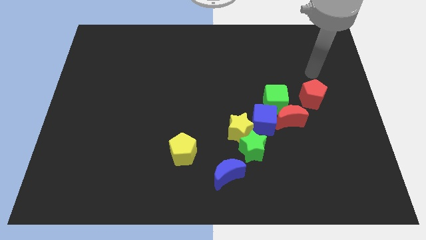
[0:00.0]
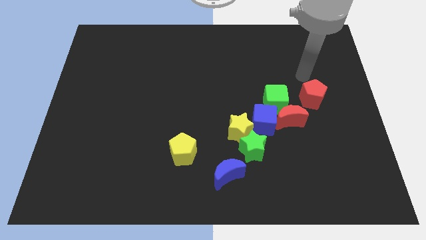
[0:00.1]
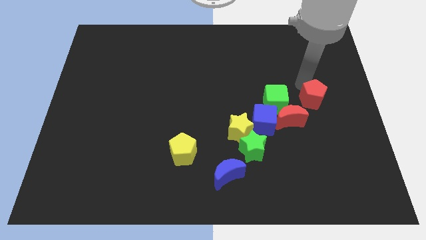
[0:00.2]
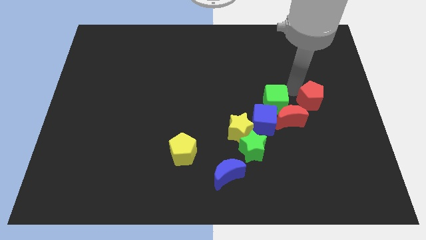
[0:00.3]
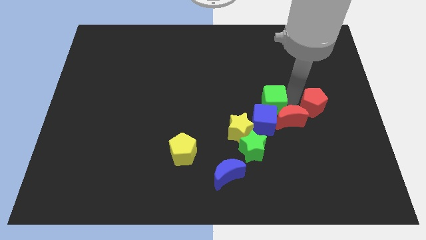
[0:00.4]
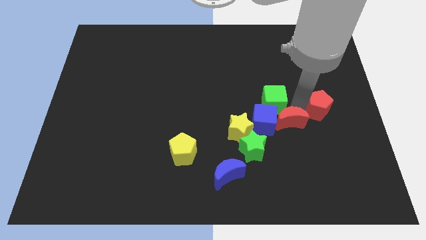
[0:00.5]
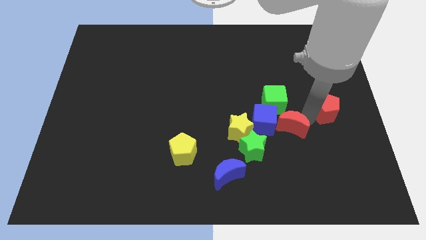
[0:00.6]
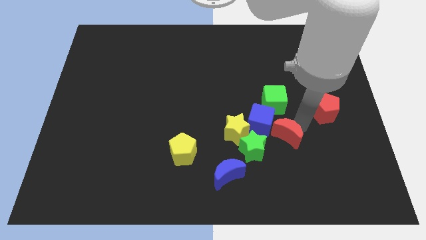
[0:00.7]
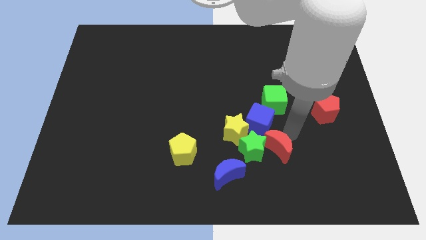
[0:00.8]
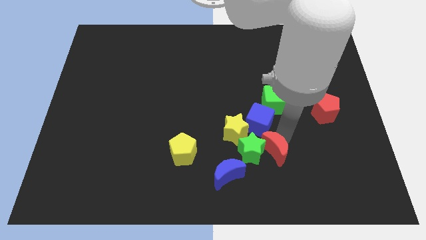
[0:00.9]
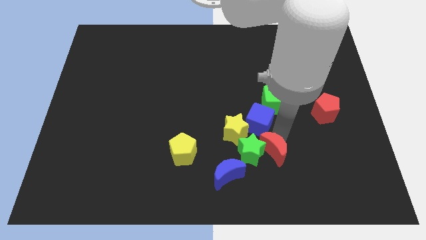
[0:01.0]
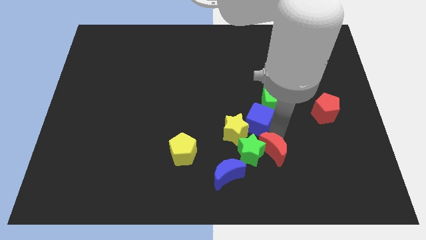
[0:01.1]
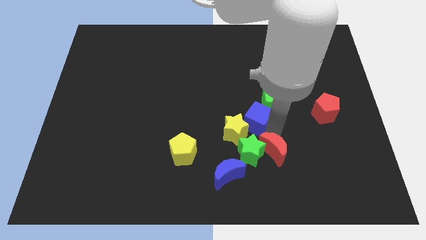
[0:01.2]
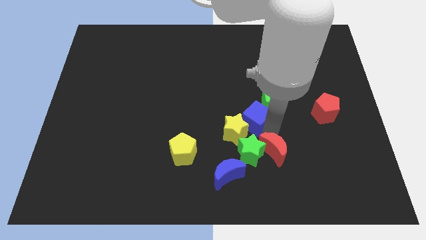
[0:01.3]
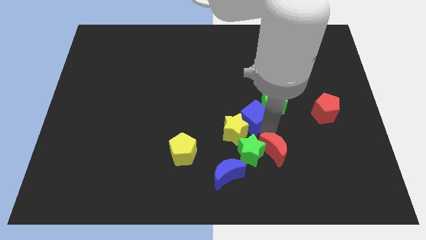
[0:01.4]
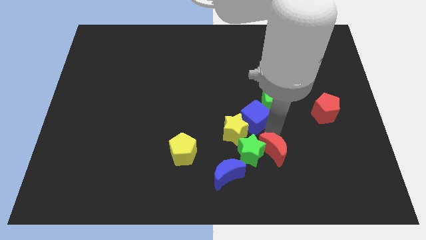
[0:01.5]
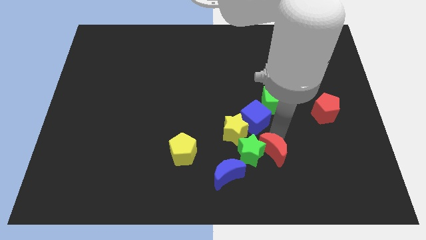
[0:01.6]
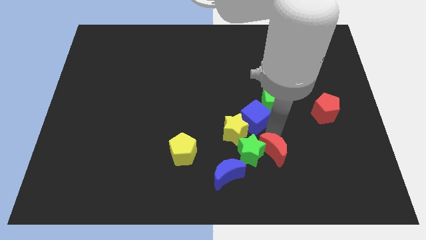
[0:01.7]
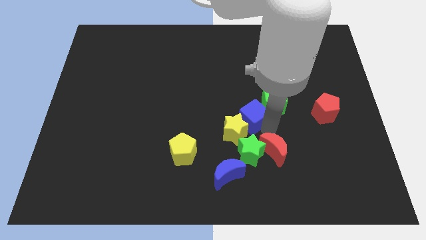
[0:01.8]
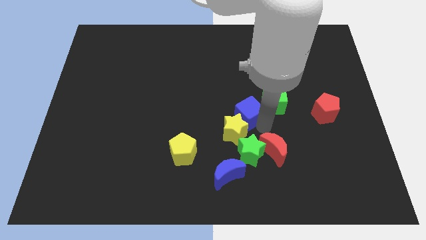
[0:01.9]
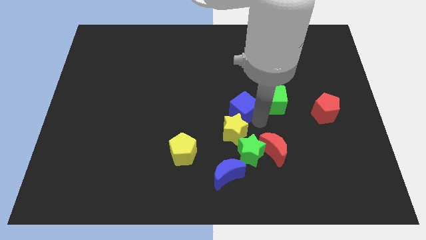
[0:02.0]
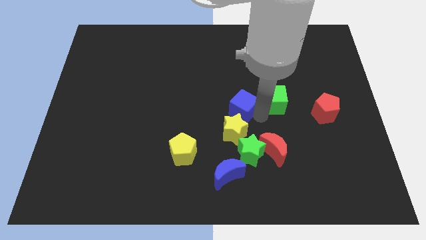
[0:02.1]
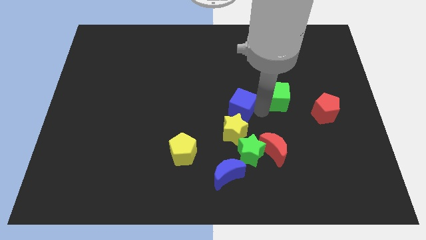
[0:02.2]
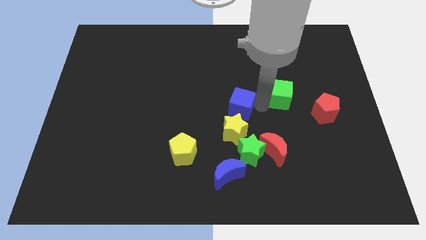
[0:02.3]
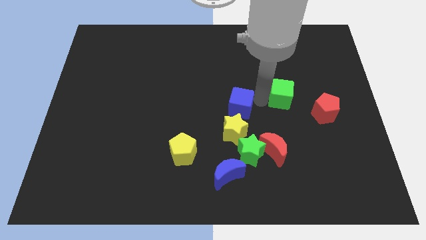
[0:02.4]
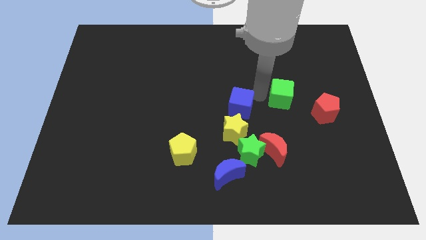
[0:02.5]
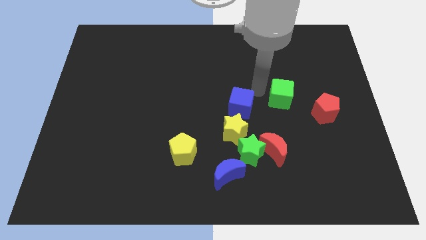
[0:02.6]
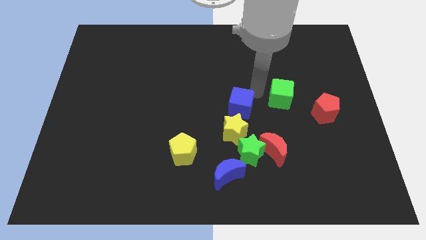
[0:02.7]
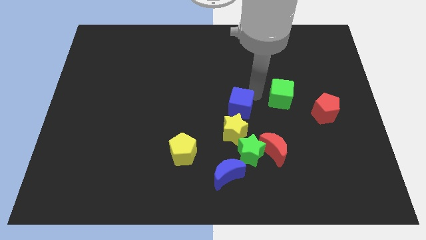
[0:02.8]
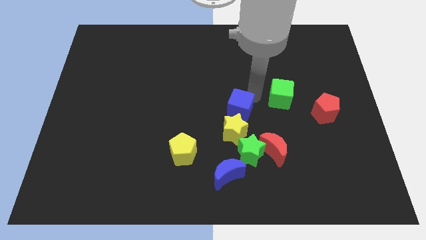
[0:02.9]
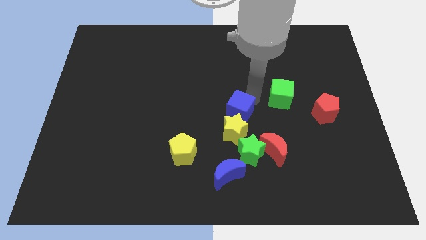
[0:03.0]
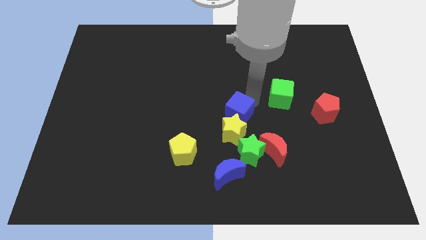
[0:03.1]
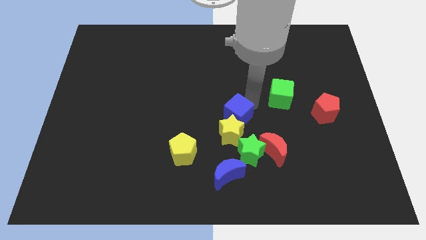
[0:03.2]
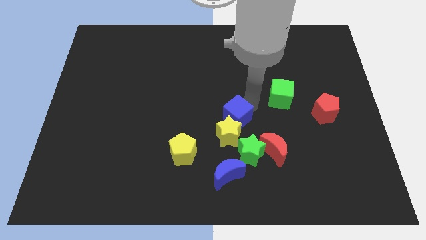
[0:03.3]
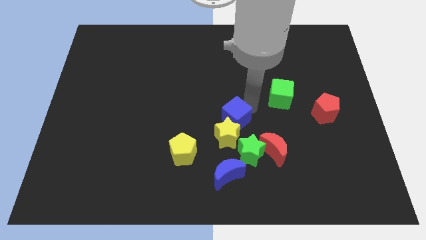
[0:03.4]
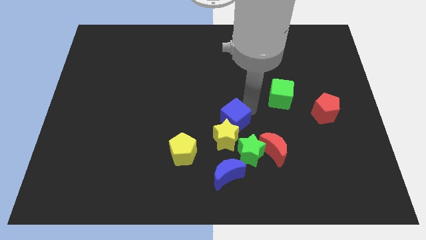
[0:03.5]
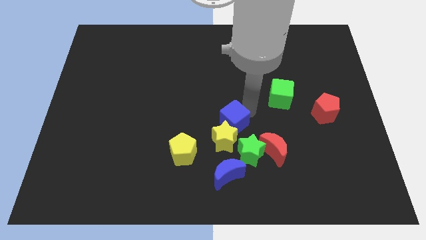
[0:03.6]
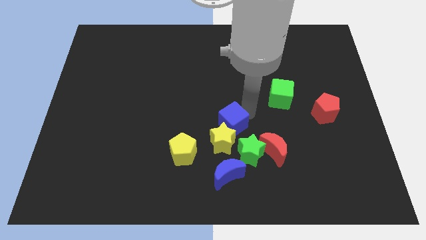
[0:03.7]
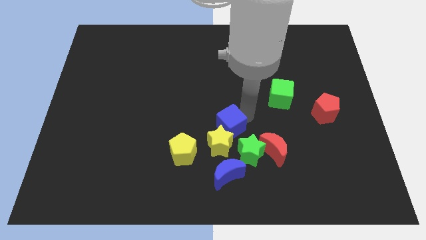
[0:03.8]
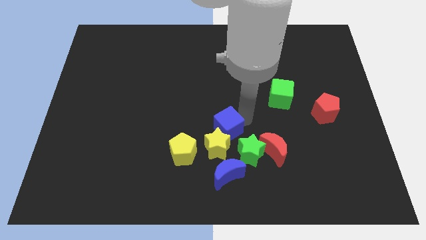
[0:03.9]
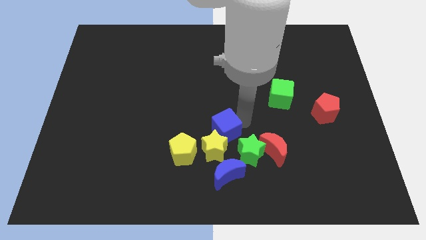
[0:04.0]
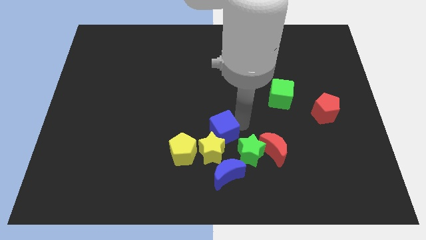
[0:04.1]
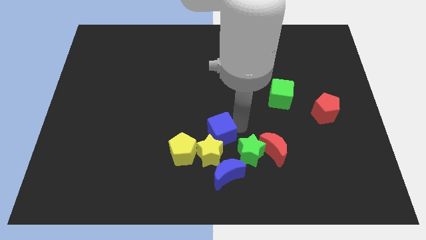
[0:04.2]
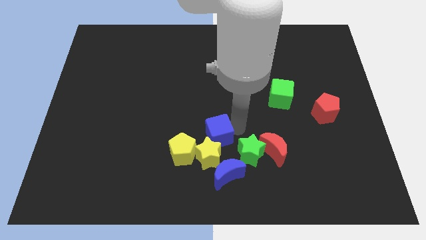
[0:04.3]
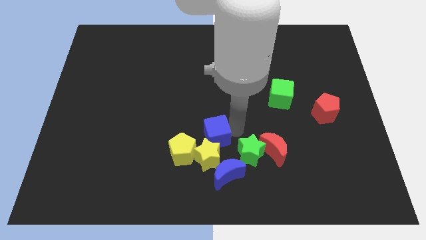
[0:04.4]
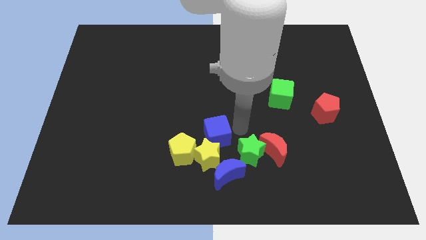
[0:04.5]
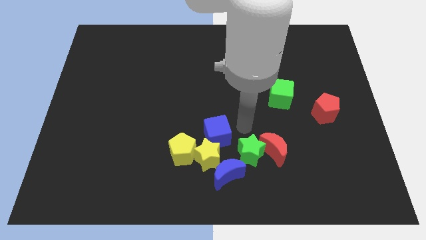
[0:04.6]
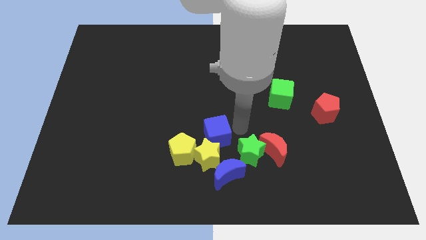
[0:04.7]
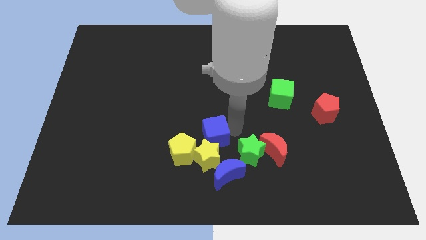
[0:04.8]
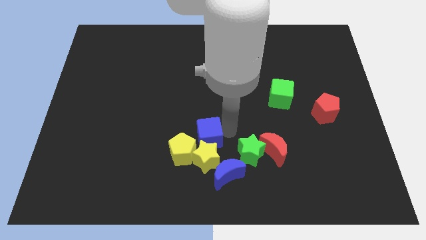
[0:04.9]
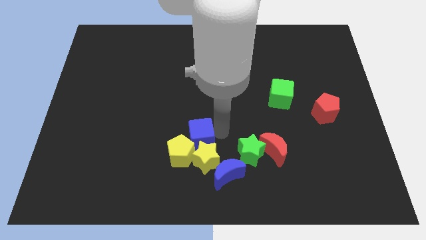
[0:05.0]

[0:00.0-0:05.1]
move the blue cube close to the yellow pentagon

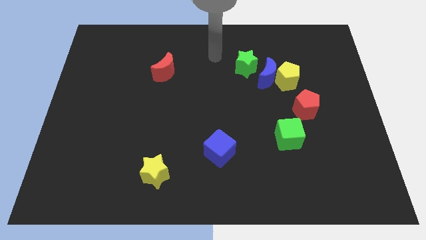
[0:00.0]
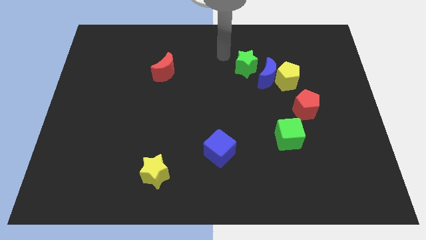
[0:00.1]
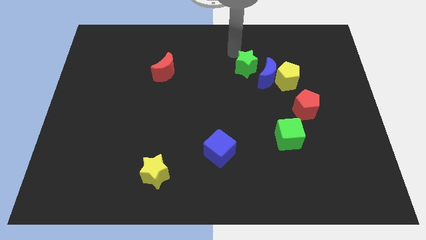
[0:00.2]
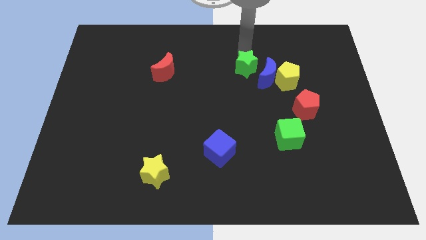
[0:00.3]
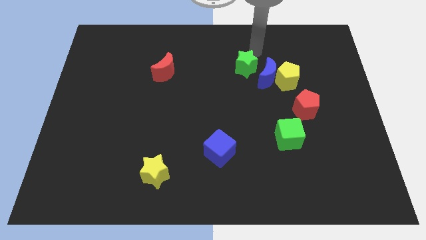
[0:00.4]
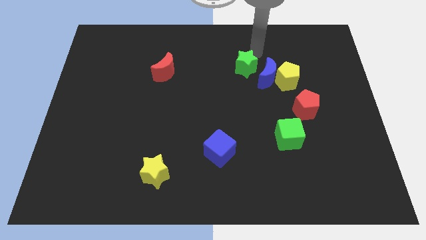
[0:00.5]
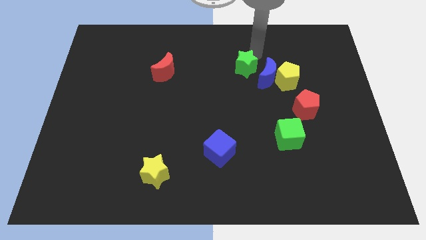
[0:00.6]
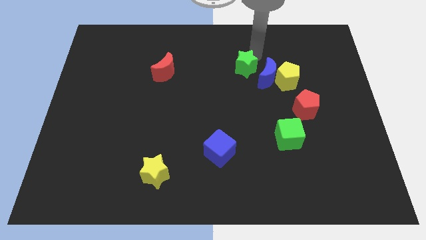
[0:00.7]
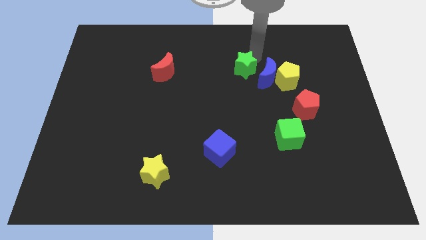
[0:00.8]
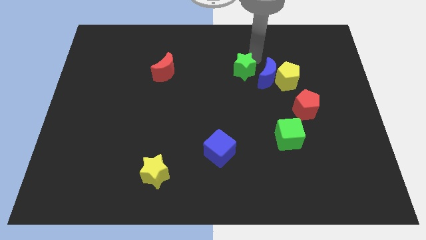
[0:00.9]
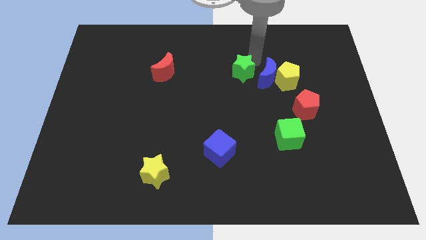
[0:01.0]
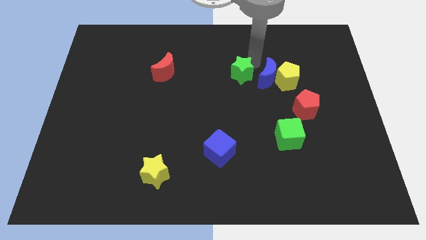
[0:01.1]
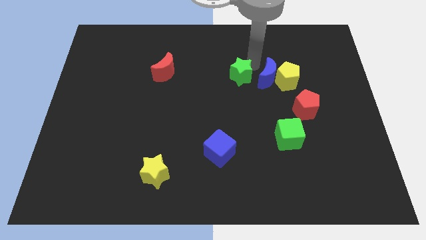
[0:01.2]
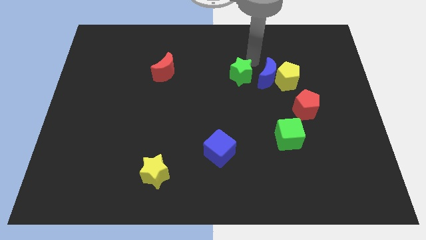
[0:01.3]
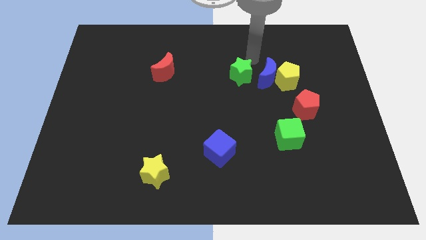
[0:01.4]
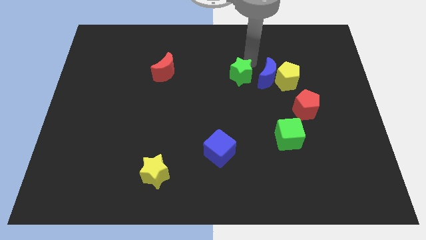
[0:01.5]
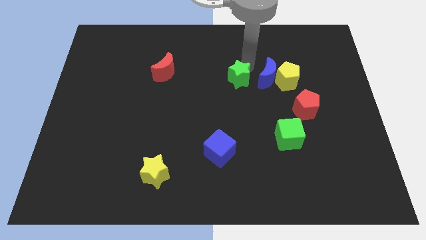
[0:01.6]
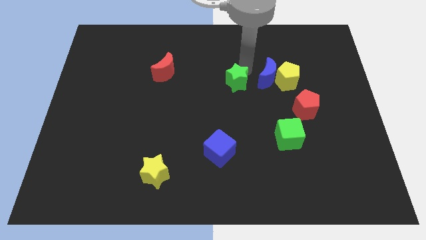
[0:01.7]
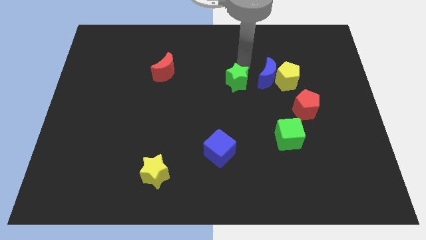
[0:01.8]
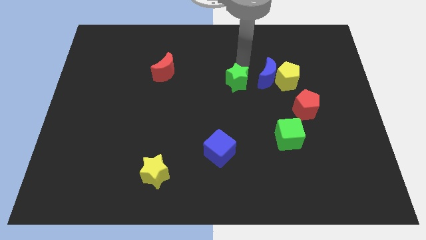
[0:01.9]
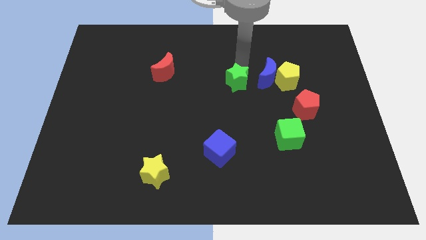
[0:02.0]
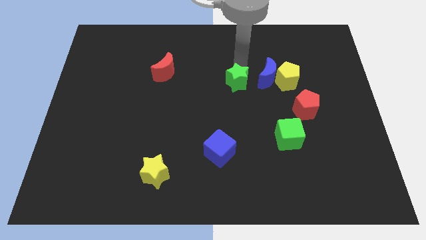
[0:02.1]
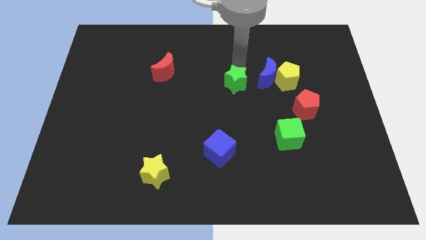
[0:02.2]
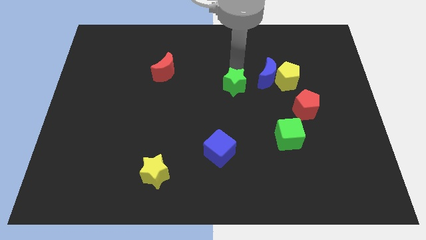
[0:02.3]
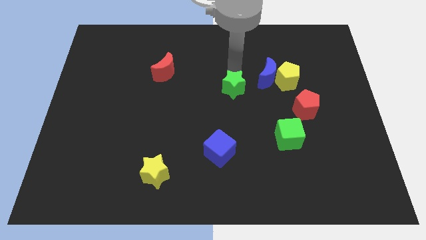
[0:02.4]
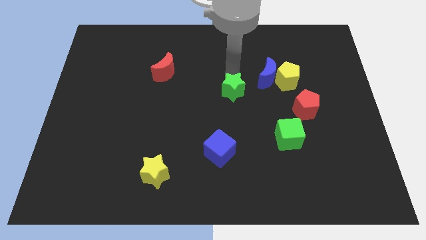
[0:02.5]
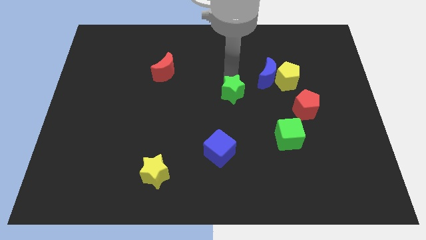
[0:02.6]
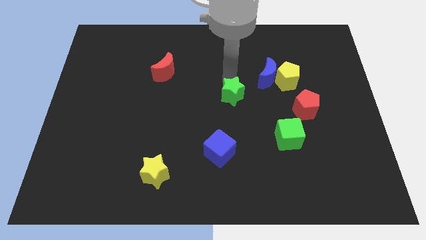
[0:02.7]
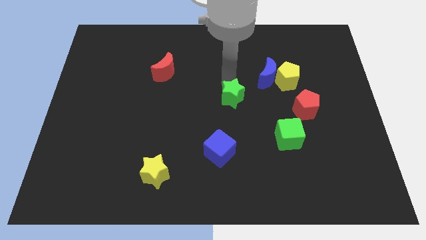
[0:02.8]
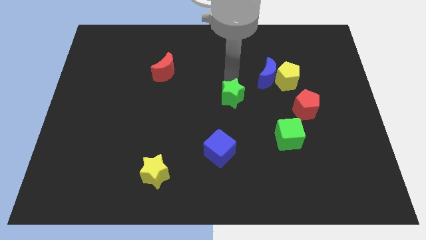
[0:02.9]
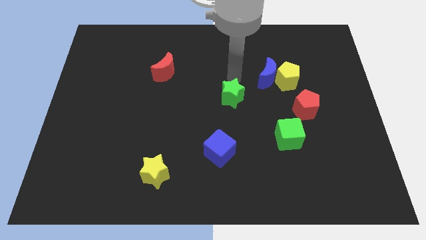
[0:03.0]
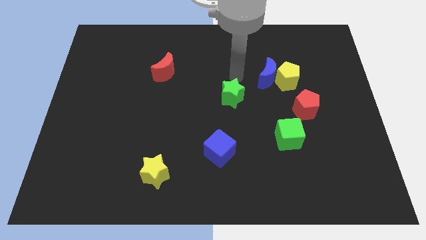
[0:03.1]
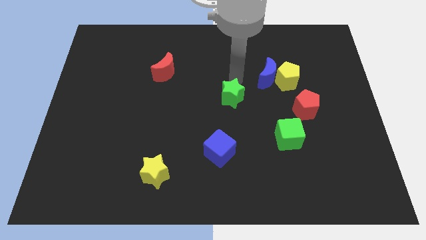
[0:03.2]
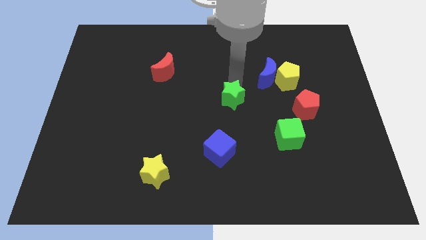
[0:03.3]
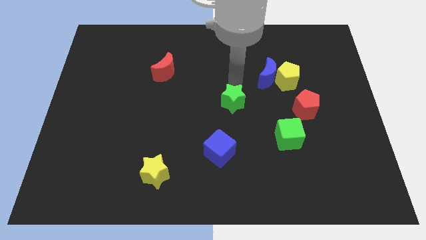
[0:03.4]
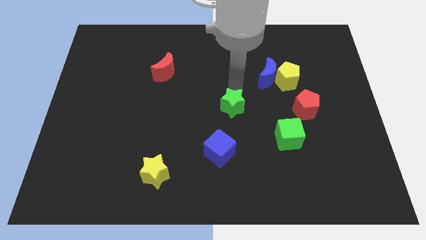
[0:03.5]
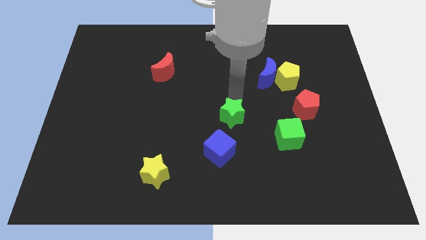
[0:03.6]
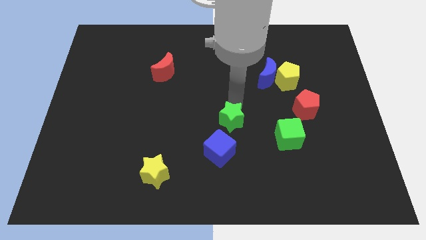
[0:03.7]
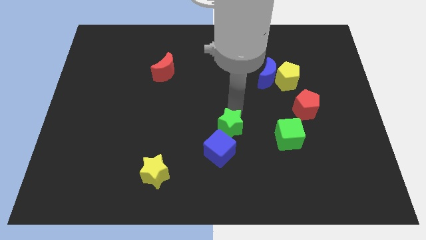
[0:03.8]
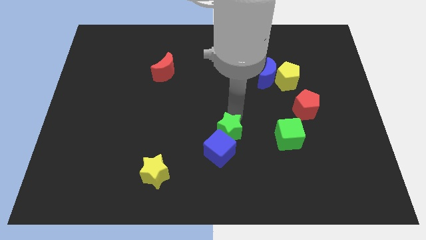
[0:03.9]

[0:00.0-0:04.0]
put the green star towards the blue cube
